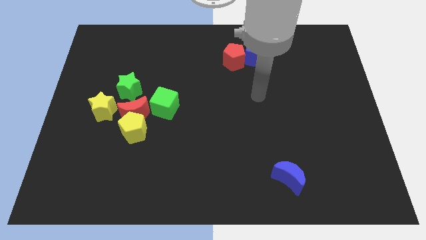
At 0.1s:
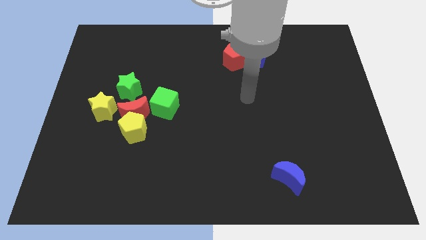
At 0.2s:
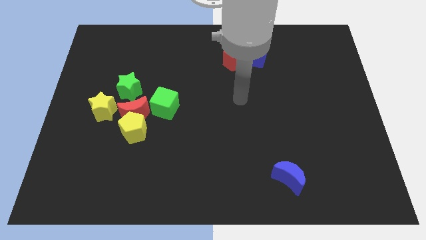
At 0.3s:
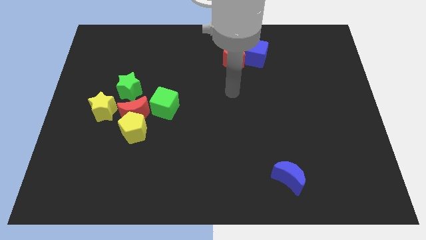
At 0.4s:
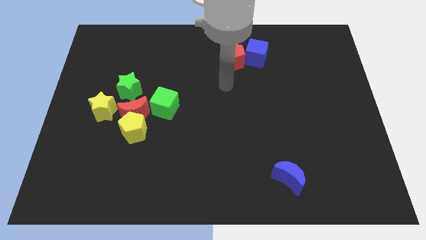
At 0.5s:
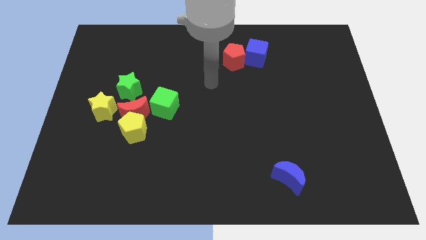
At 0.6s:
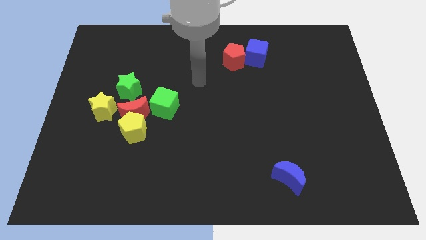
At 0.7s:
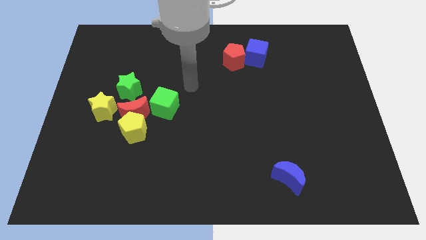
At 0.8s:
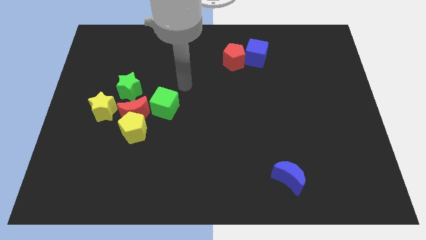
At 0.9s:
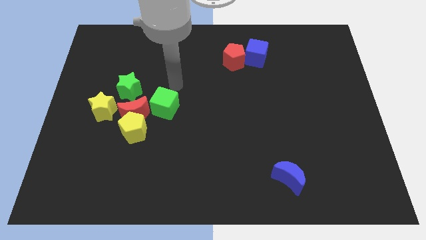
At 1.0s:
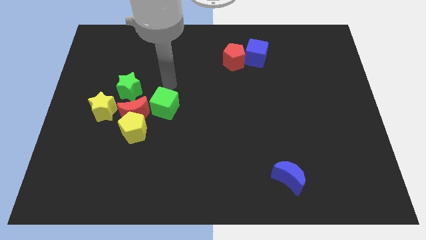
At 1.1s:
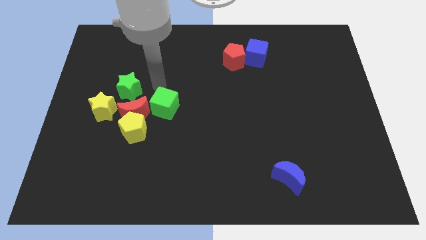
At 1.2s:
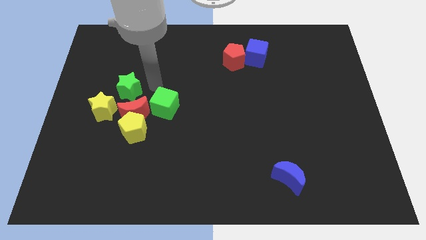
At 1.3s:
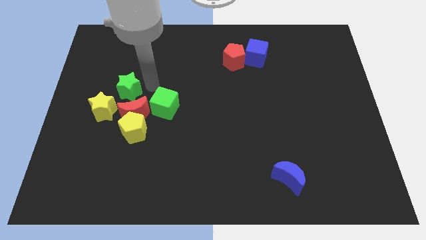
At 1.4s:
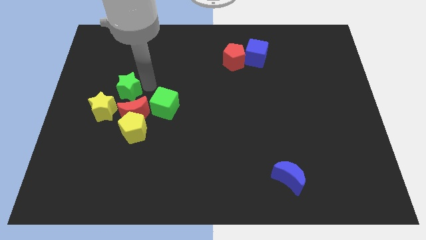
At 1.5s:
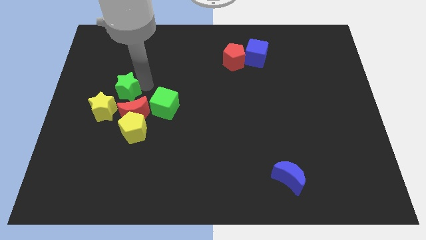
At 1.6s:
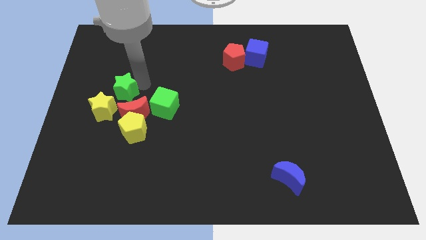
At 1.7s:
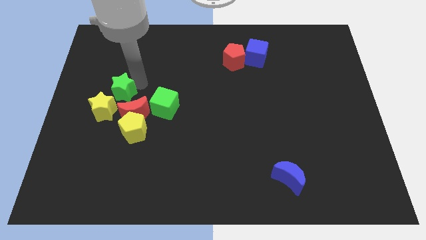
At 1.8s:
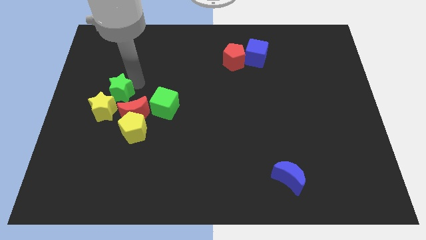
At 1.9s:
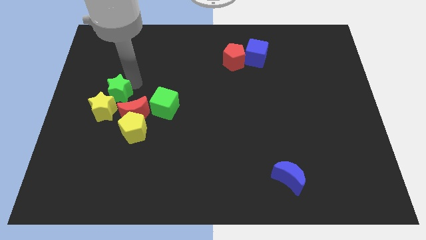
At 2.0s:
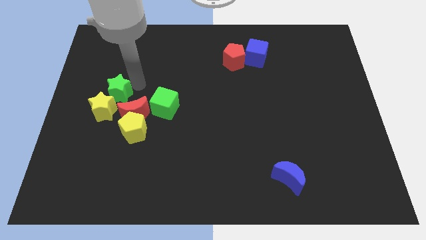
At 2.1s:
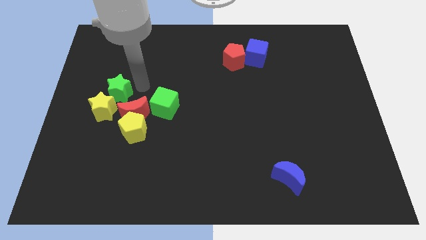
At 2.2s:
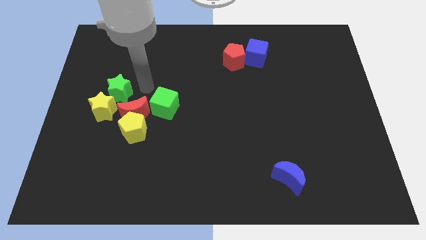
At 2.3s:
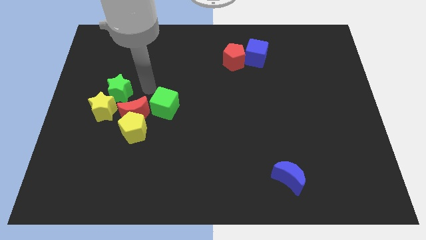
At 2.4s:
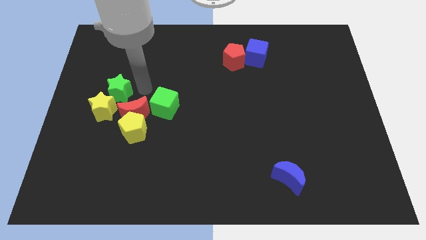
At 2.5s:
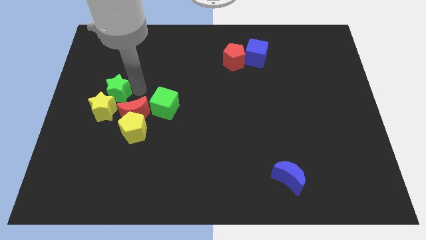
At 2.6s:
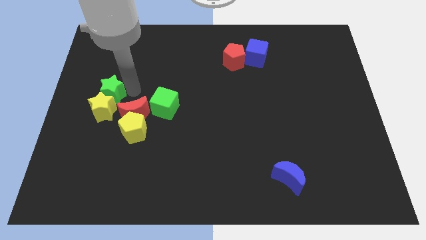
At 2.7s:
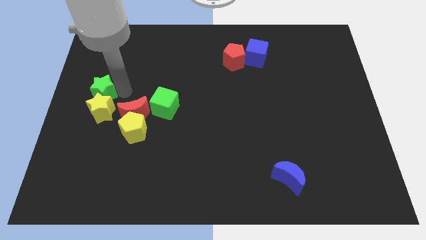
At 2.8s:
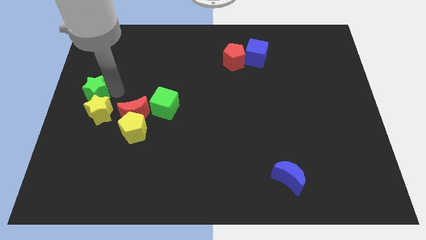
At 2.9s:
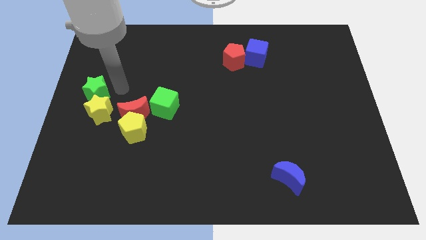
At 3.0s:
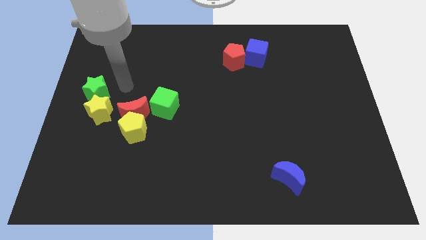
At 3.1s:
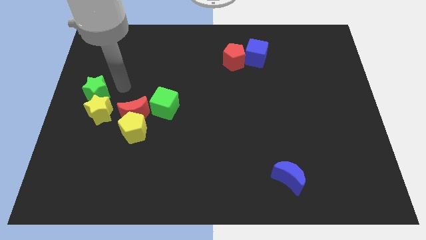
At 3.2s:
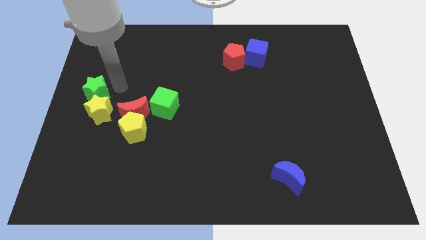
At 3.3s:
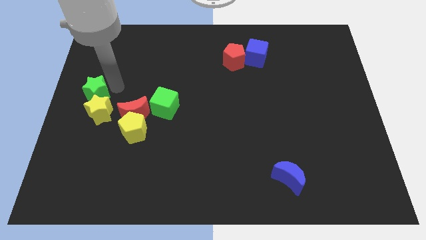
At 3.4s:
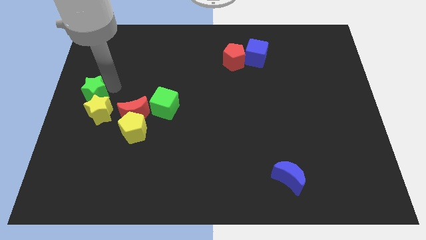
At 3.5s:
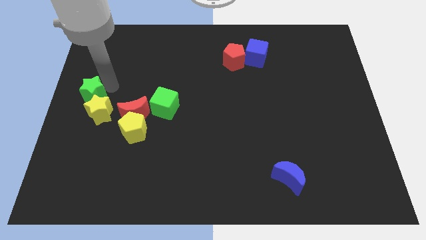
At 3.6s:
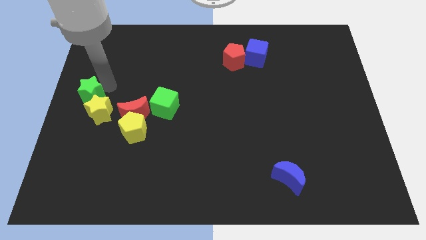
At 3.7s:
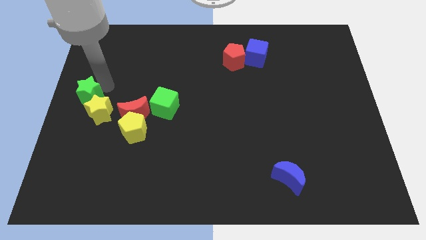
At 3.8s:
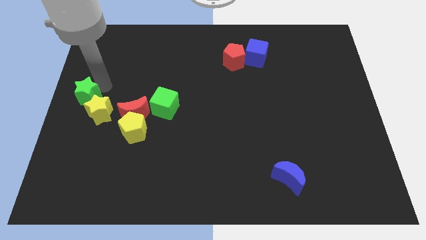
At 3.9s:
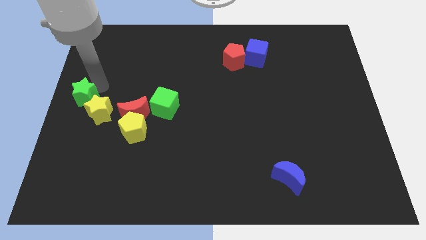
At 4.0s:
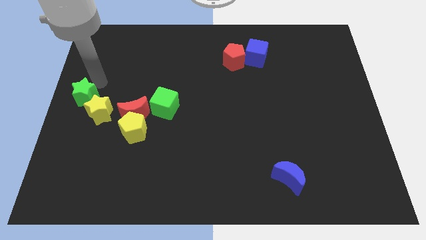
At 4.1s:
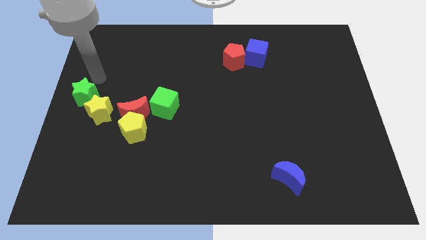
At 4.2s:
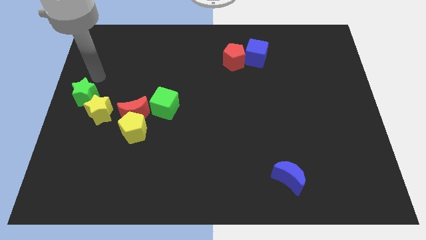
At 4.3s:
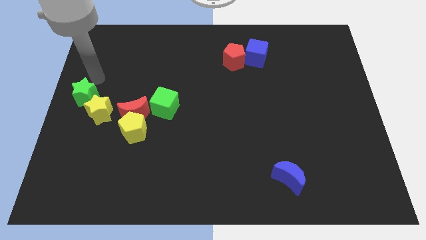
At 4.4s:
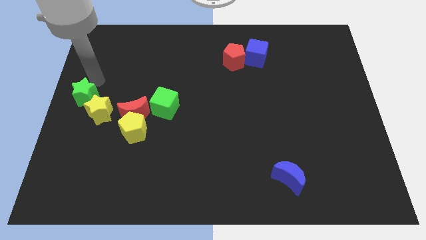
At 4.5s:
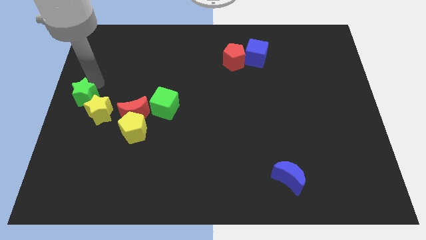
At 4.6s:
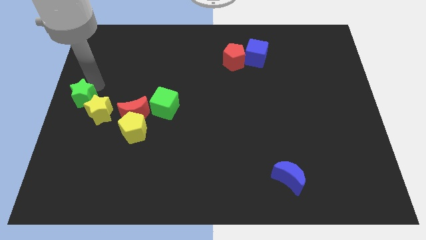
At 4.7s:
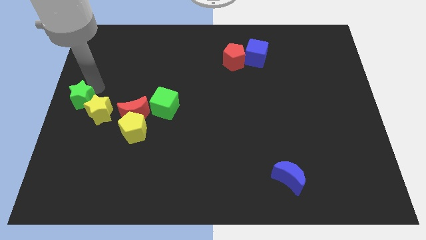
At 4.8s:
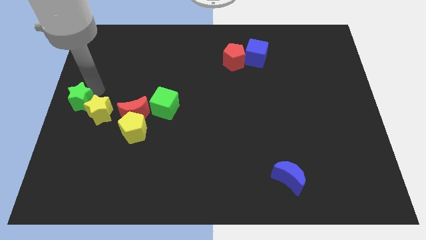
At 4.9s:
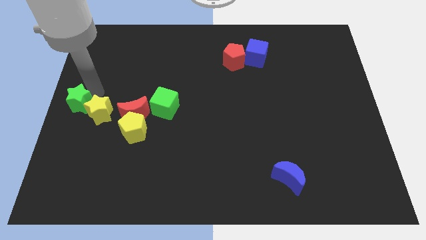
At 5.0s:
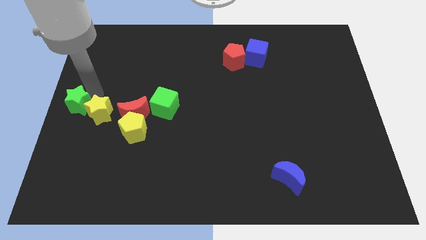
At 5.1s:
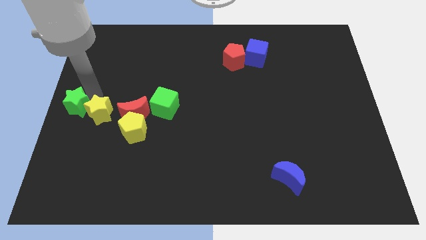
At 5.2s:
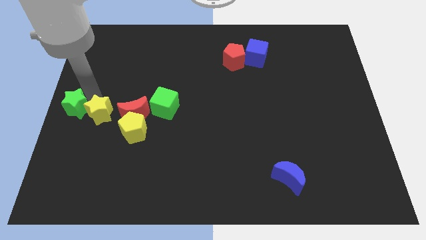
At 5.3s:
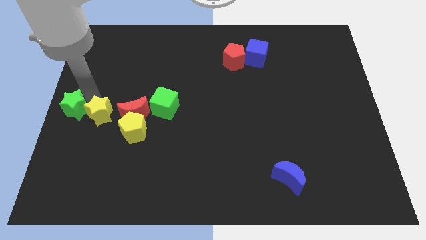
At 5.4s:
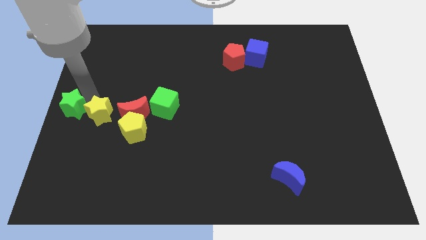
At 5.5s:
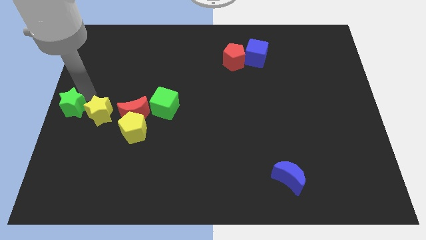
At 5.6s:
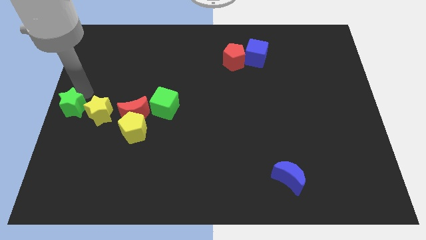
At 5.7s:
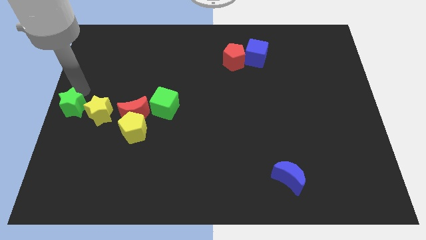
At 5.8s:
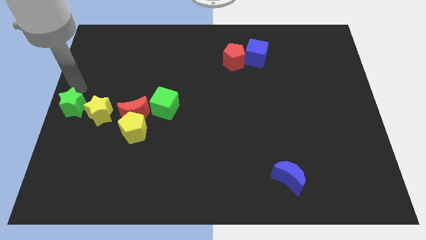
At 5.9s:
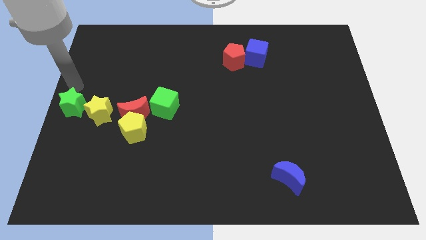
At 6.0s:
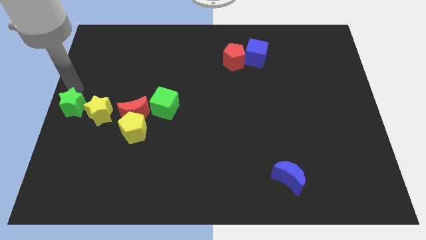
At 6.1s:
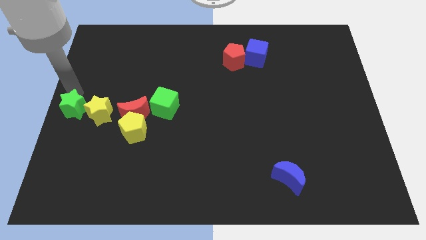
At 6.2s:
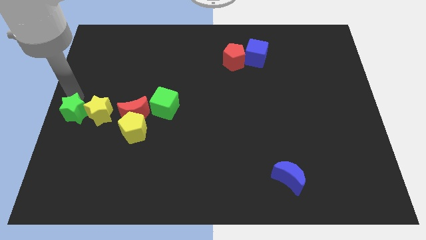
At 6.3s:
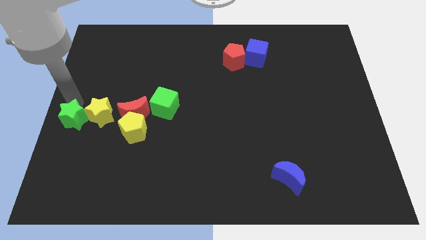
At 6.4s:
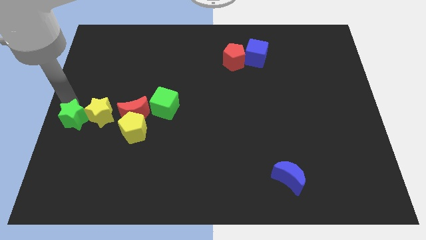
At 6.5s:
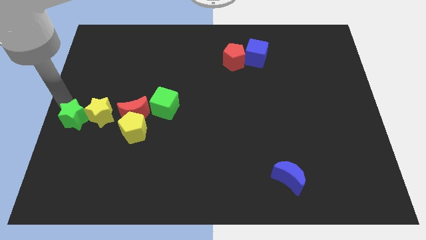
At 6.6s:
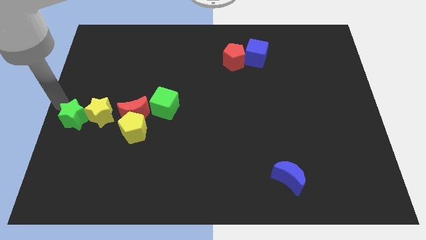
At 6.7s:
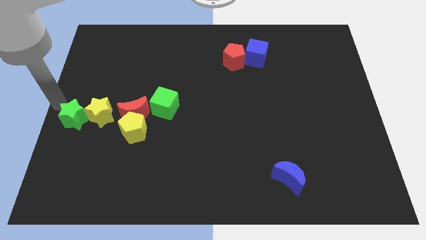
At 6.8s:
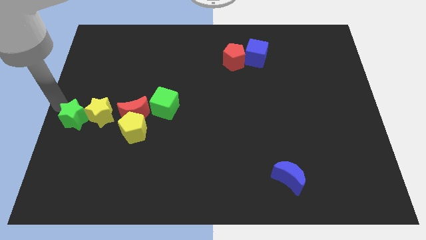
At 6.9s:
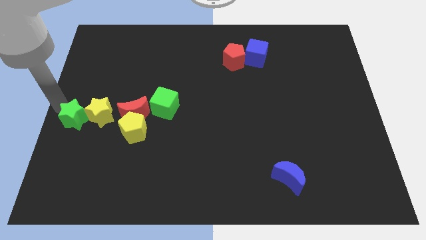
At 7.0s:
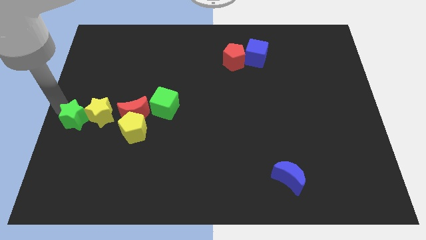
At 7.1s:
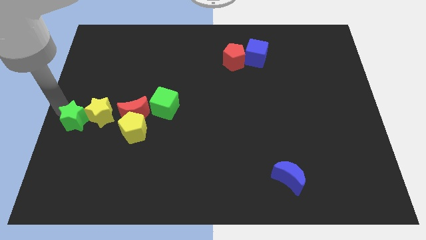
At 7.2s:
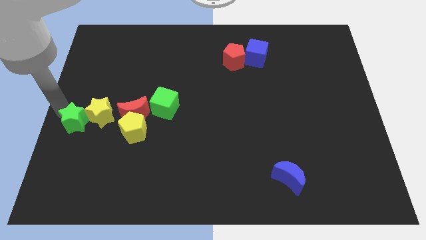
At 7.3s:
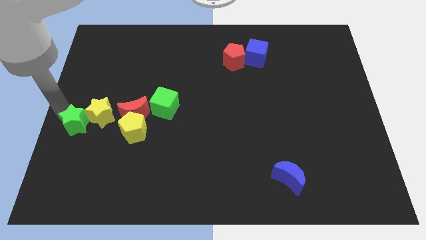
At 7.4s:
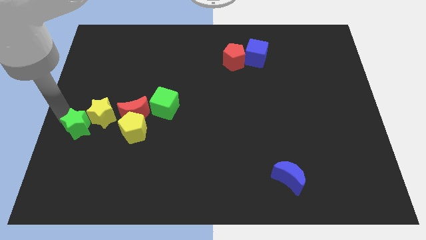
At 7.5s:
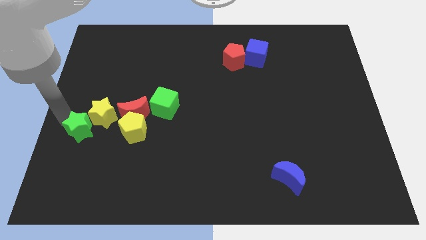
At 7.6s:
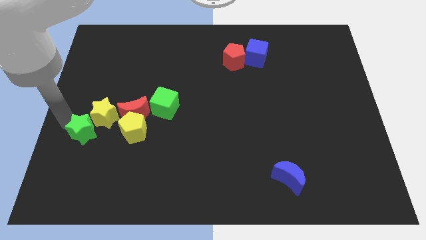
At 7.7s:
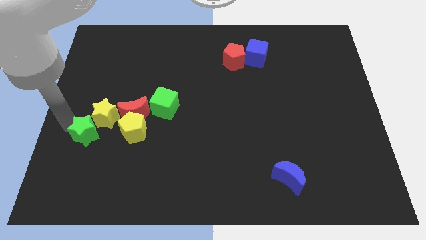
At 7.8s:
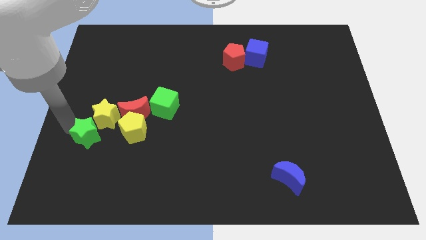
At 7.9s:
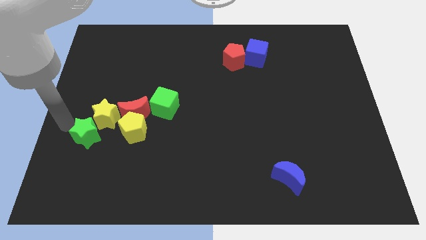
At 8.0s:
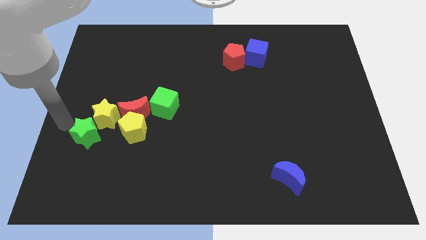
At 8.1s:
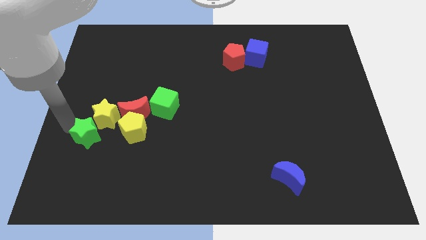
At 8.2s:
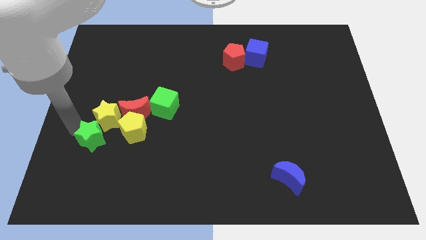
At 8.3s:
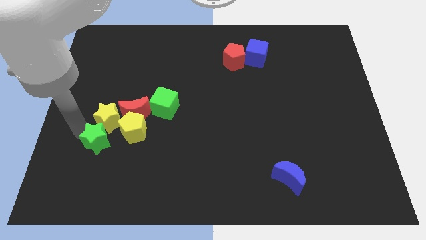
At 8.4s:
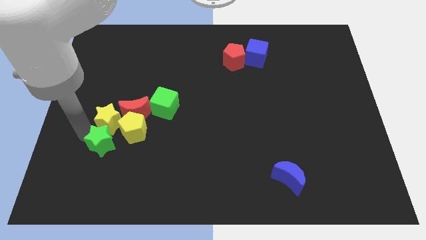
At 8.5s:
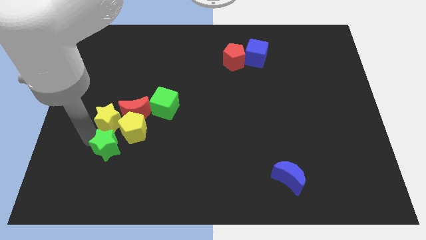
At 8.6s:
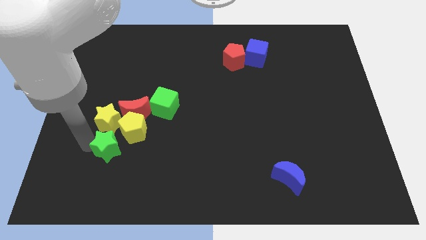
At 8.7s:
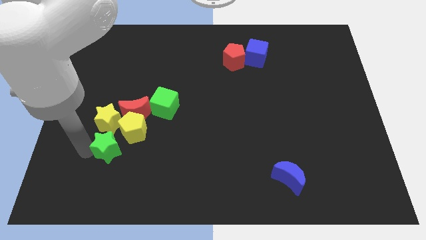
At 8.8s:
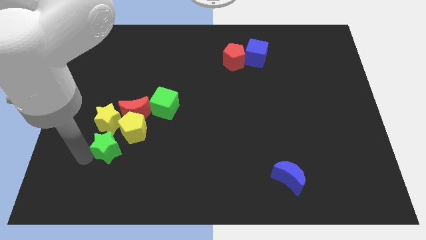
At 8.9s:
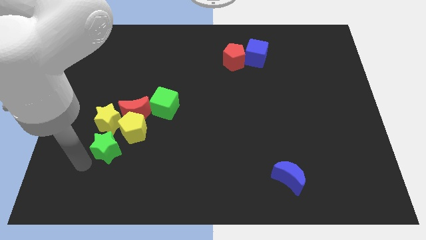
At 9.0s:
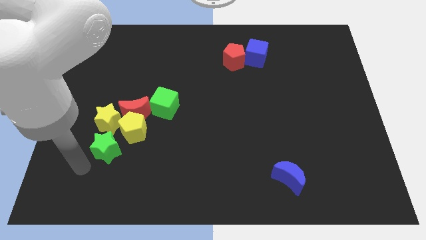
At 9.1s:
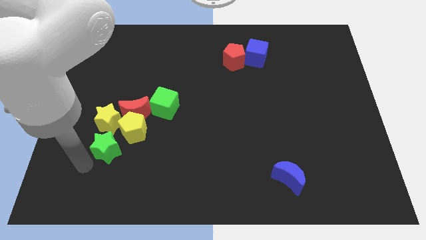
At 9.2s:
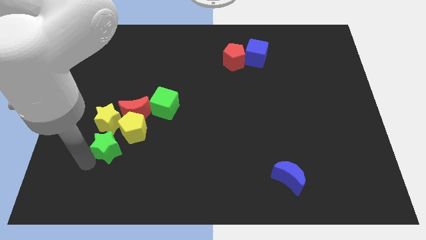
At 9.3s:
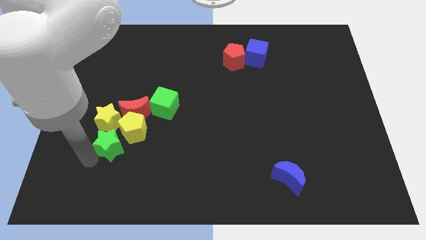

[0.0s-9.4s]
slide the green star next to the yellow pentagon
